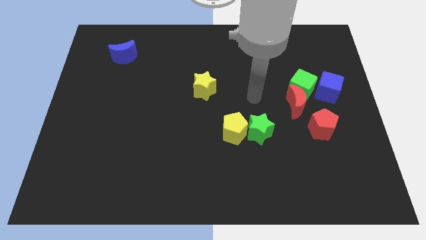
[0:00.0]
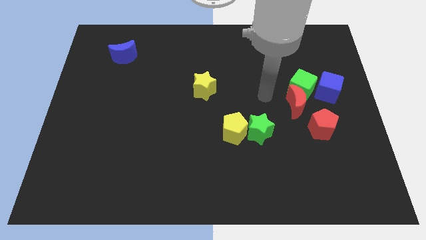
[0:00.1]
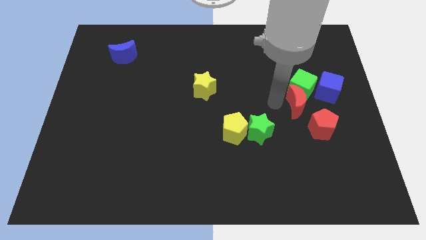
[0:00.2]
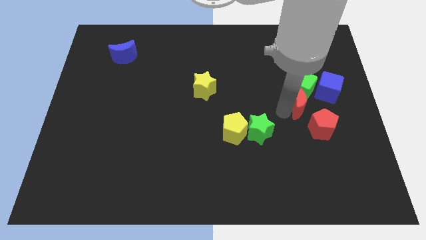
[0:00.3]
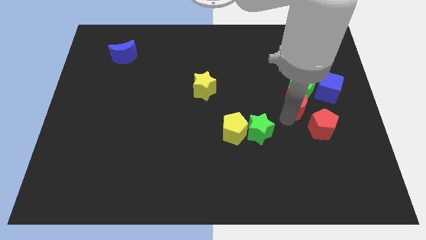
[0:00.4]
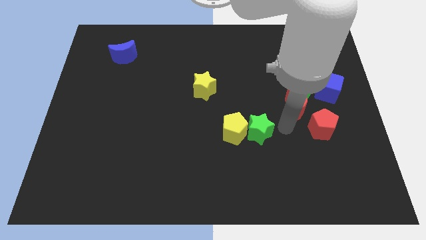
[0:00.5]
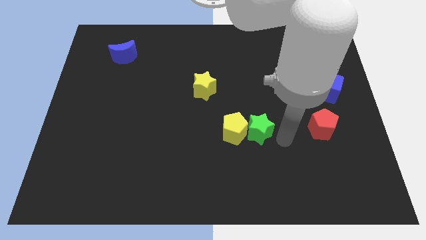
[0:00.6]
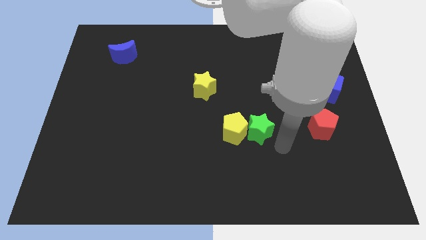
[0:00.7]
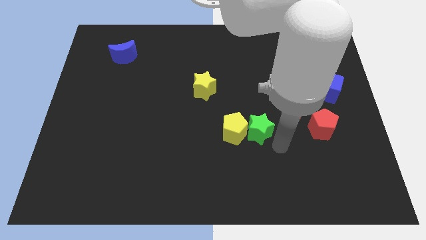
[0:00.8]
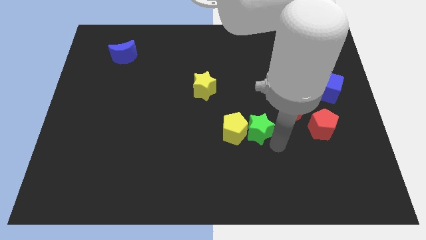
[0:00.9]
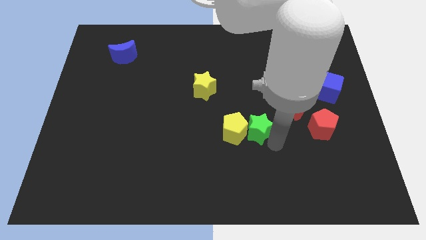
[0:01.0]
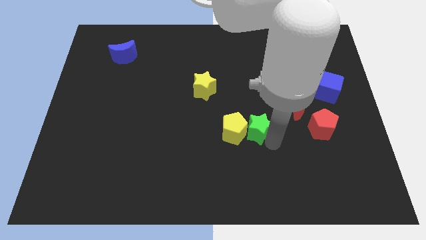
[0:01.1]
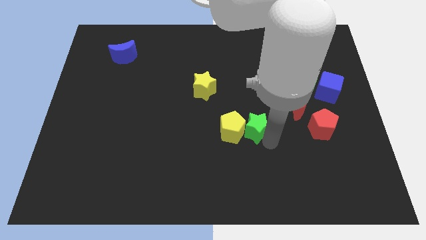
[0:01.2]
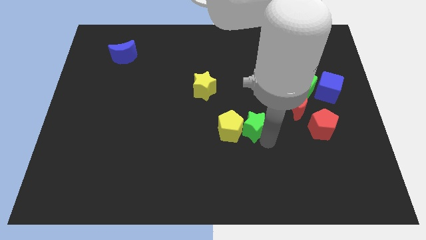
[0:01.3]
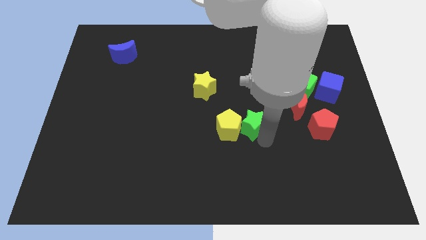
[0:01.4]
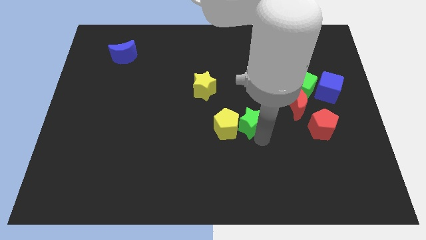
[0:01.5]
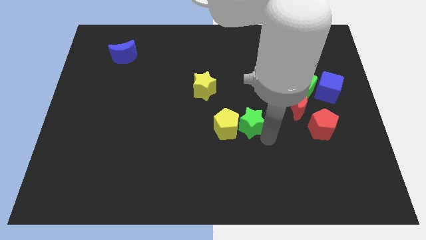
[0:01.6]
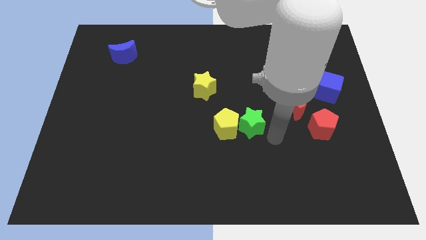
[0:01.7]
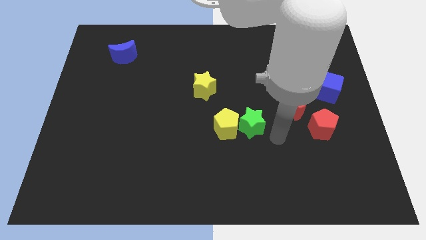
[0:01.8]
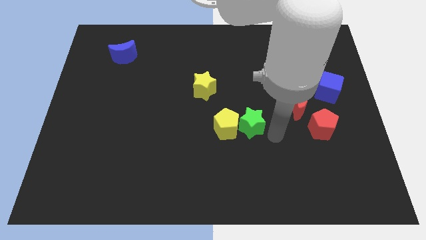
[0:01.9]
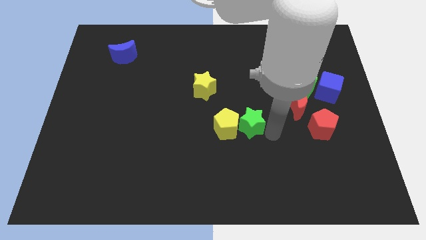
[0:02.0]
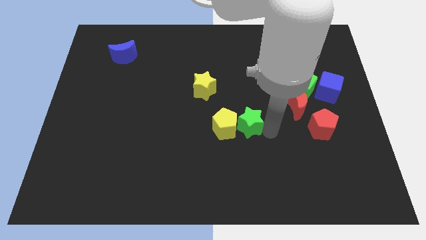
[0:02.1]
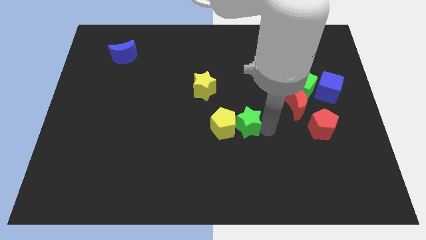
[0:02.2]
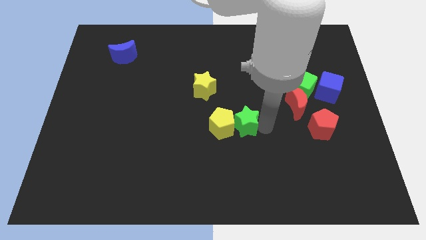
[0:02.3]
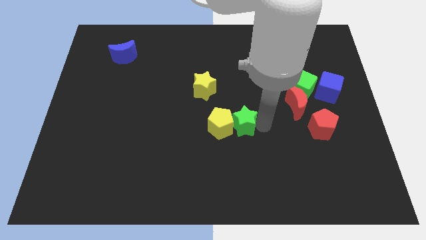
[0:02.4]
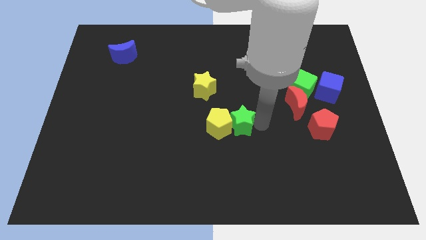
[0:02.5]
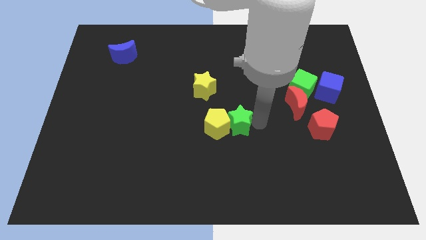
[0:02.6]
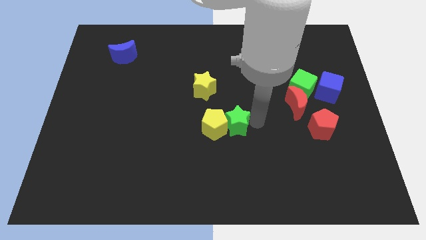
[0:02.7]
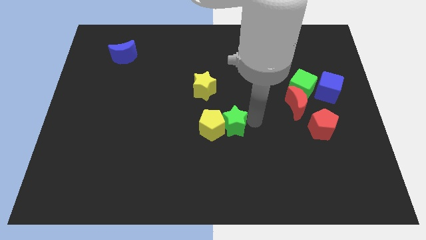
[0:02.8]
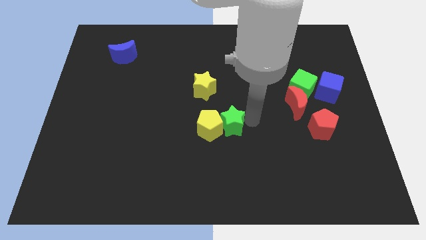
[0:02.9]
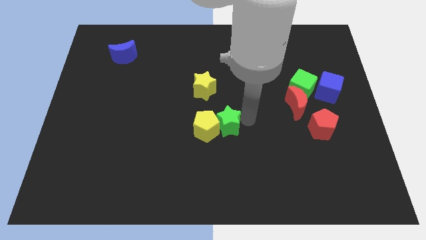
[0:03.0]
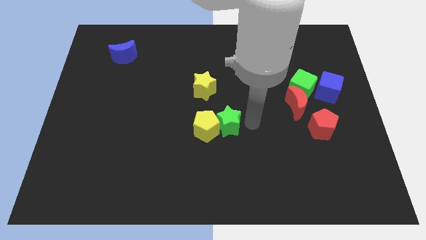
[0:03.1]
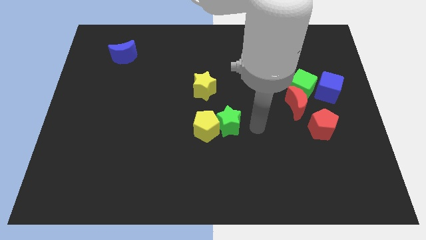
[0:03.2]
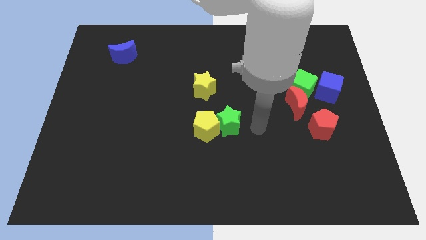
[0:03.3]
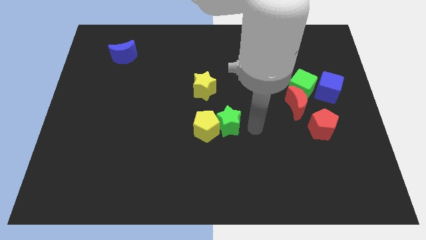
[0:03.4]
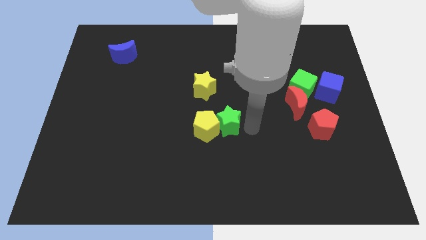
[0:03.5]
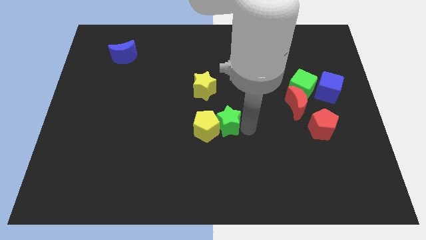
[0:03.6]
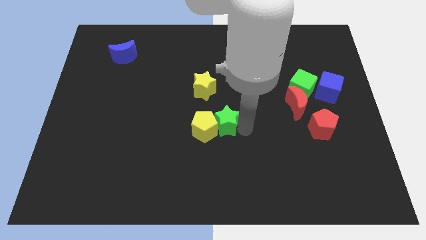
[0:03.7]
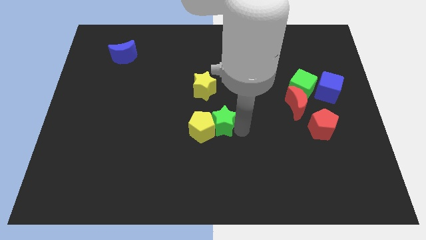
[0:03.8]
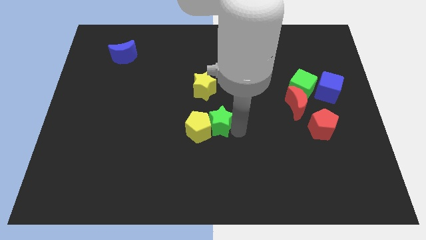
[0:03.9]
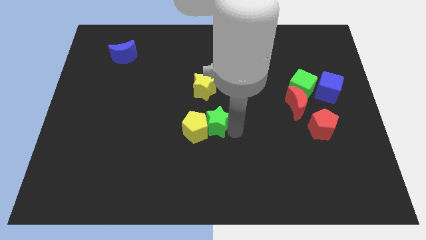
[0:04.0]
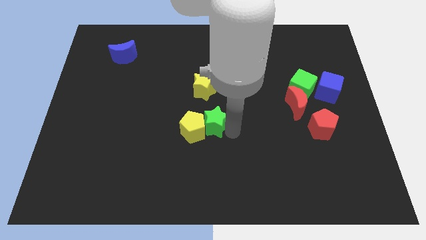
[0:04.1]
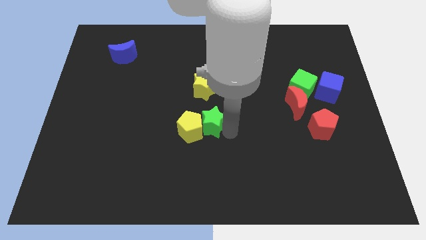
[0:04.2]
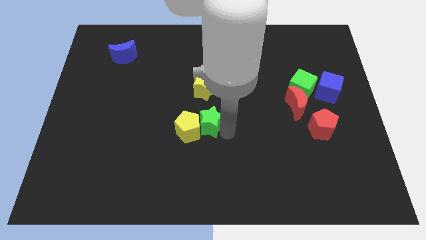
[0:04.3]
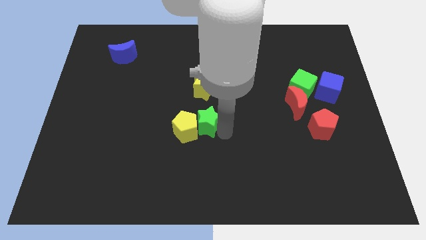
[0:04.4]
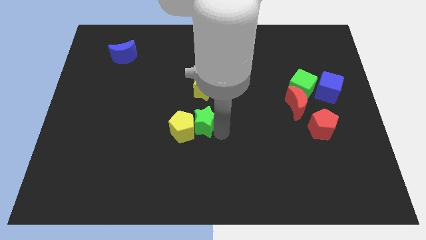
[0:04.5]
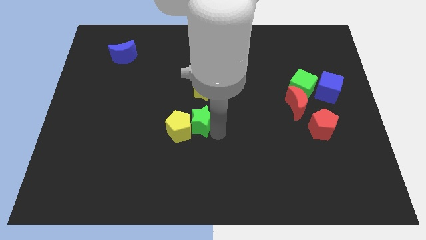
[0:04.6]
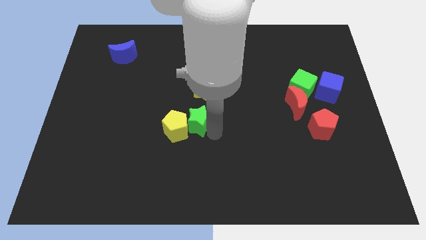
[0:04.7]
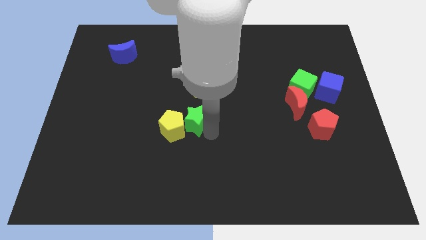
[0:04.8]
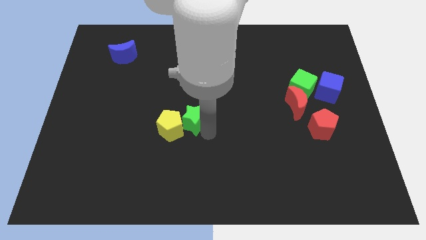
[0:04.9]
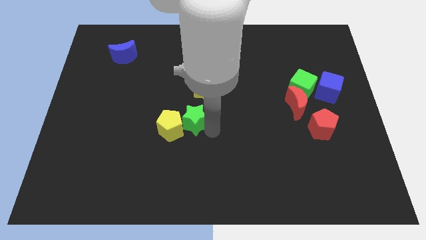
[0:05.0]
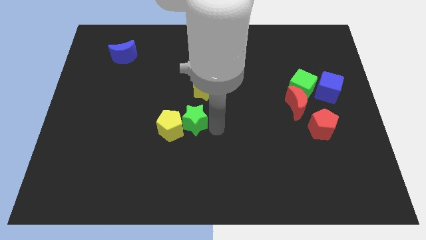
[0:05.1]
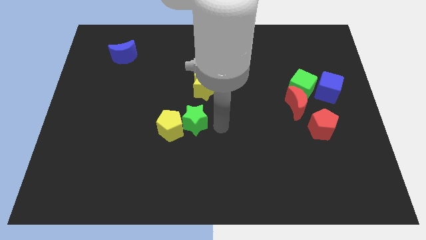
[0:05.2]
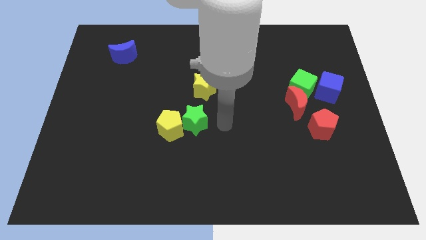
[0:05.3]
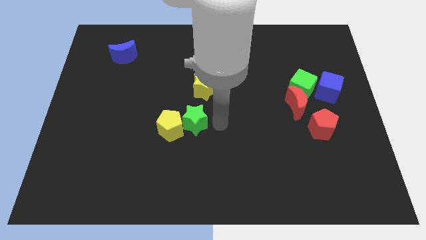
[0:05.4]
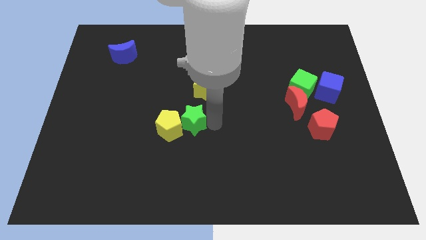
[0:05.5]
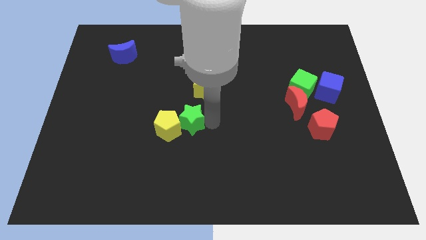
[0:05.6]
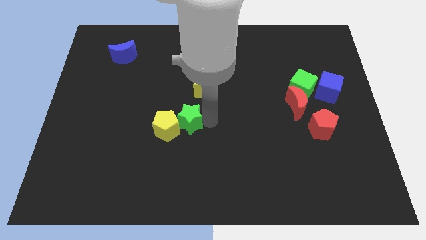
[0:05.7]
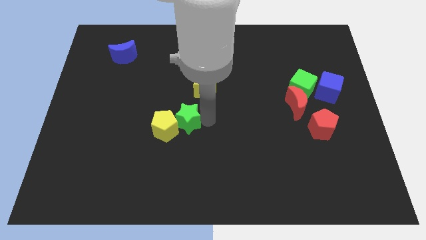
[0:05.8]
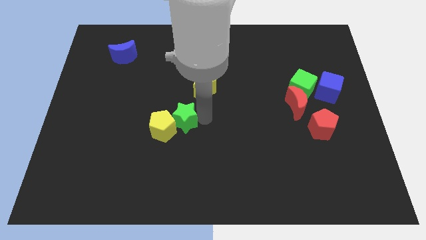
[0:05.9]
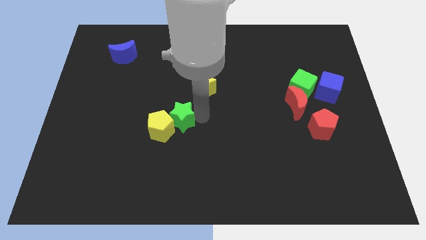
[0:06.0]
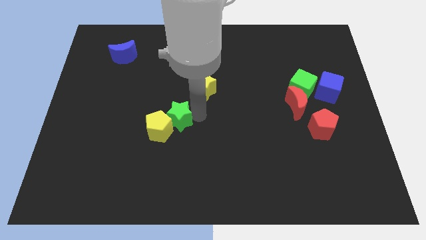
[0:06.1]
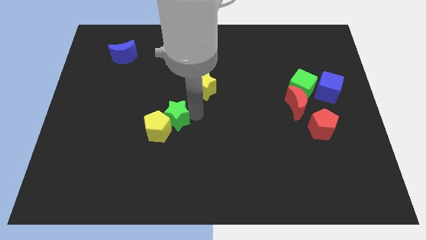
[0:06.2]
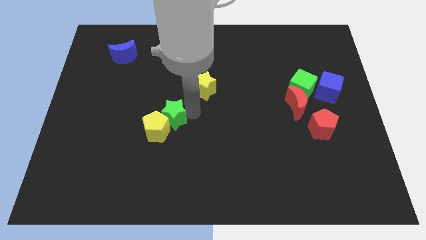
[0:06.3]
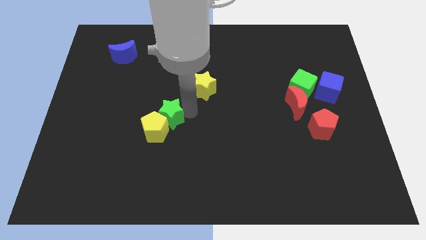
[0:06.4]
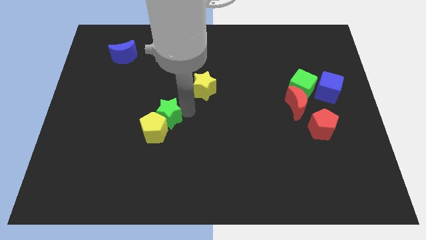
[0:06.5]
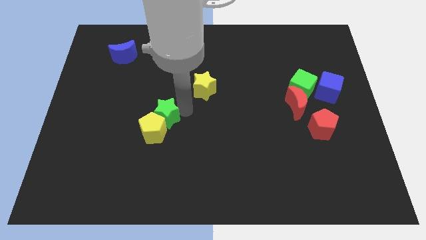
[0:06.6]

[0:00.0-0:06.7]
move the green star to the left

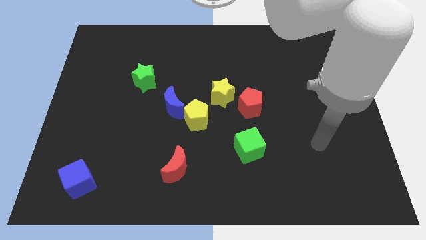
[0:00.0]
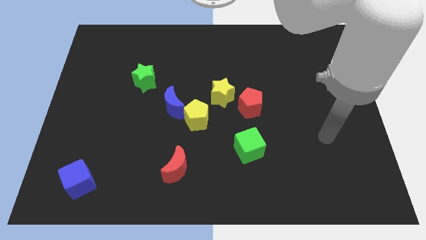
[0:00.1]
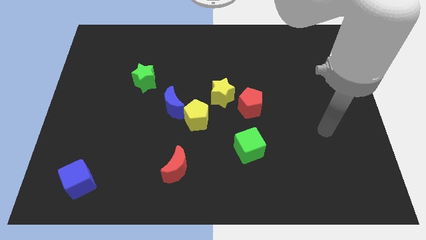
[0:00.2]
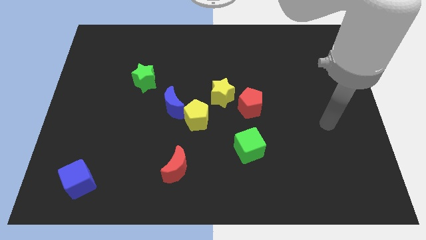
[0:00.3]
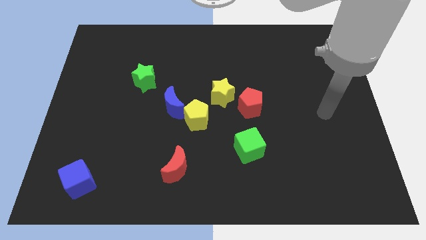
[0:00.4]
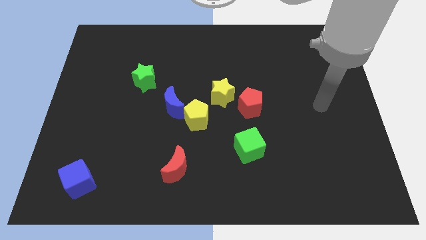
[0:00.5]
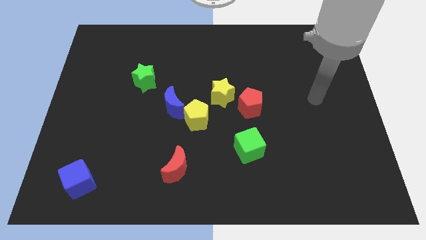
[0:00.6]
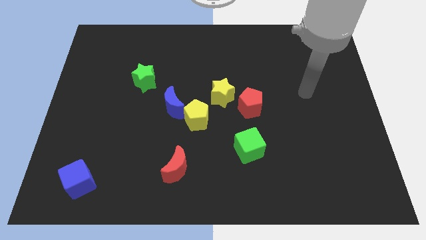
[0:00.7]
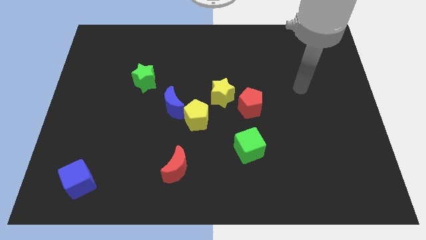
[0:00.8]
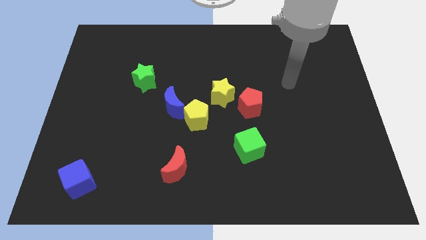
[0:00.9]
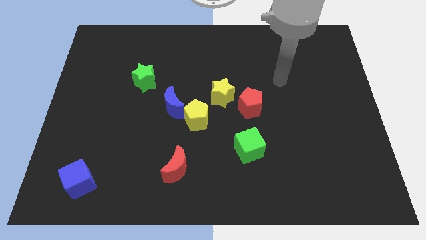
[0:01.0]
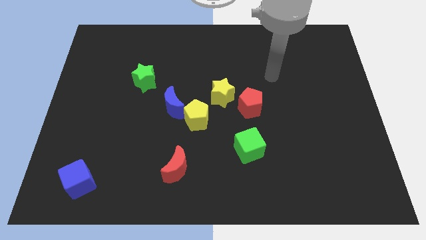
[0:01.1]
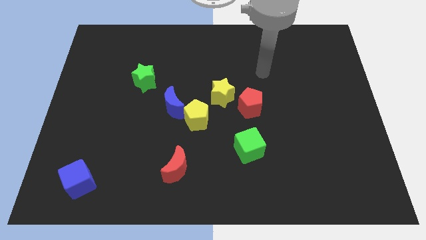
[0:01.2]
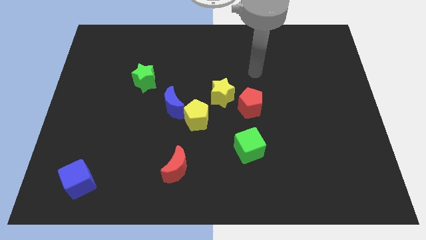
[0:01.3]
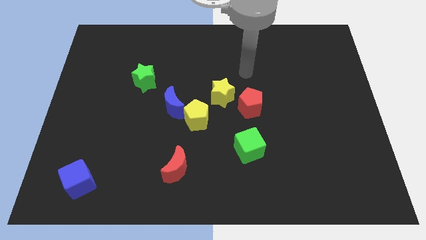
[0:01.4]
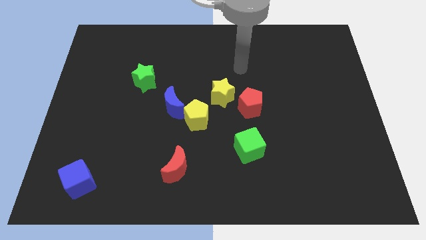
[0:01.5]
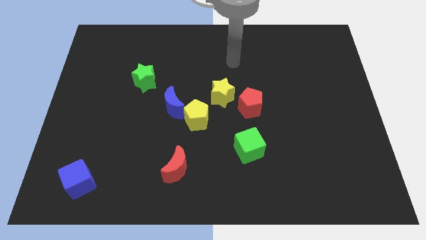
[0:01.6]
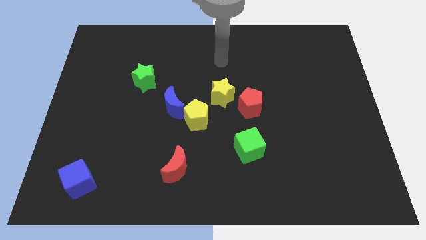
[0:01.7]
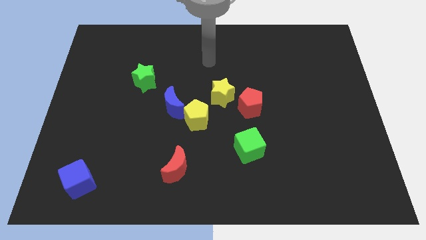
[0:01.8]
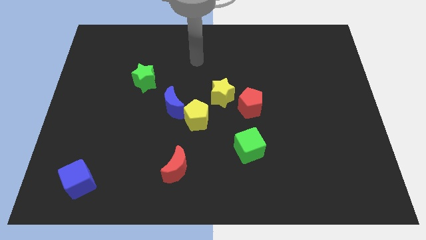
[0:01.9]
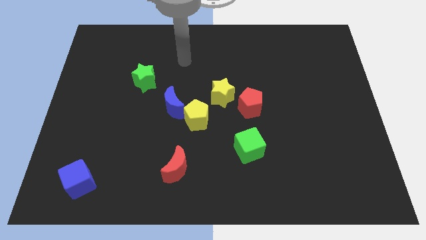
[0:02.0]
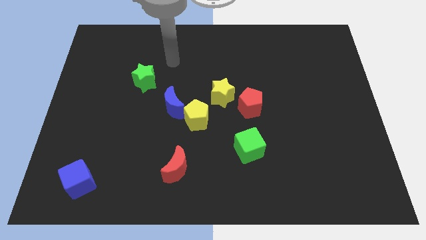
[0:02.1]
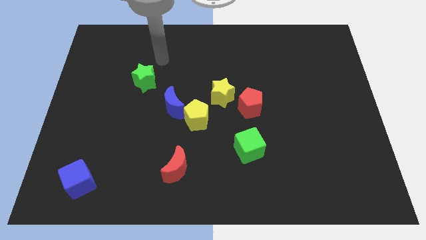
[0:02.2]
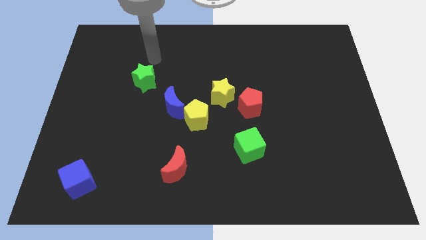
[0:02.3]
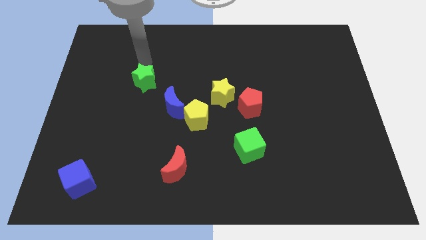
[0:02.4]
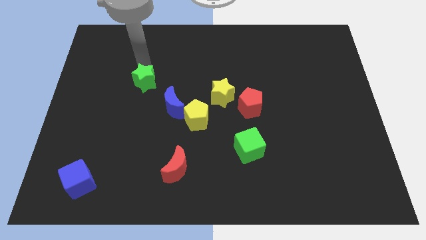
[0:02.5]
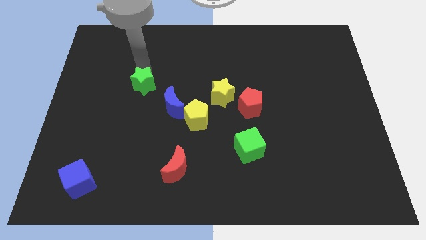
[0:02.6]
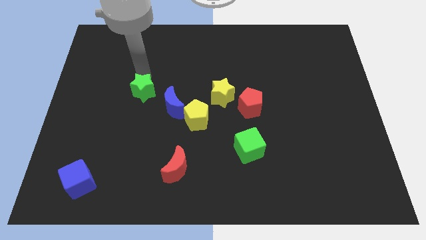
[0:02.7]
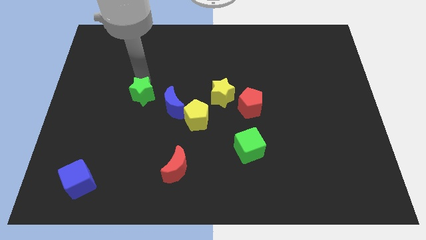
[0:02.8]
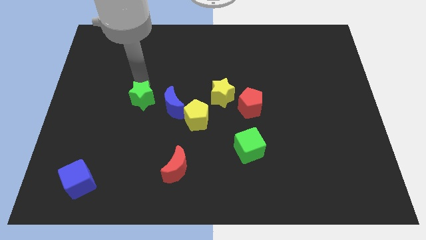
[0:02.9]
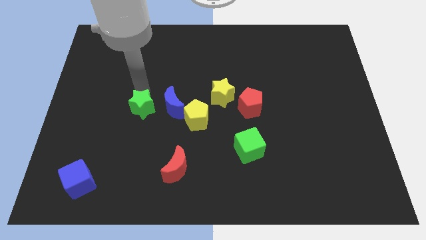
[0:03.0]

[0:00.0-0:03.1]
move the green star a little downwards
